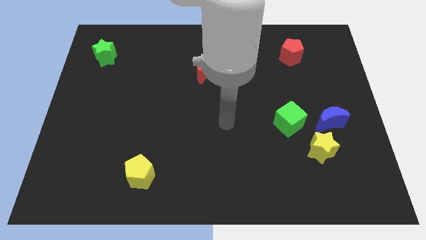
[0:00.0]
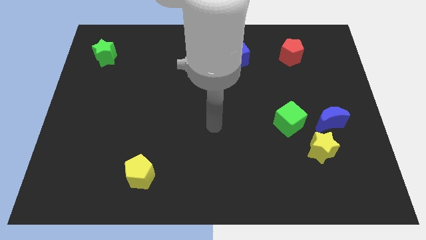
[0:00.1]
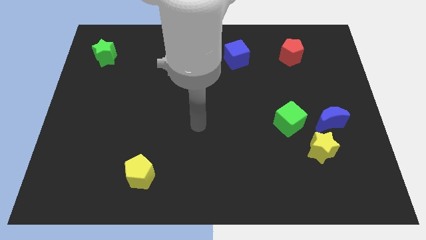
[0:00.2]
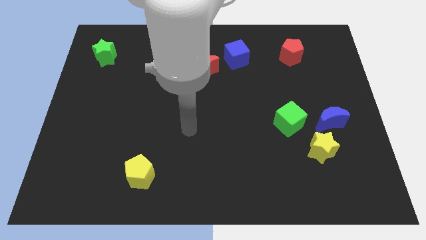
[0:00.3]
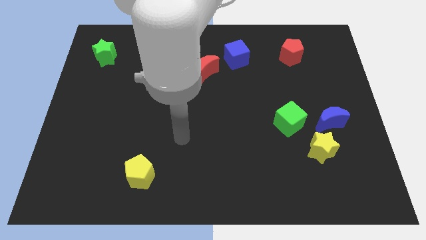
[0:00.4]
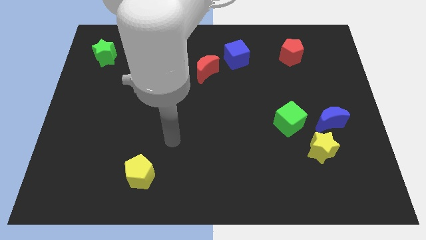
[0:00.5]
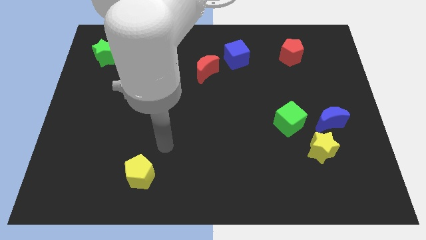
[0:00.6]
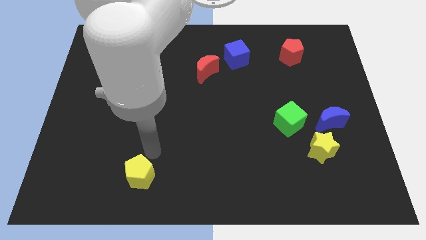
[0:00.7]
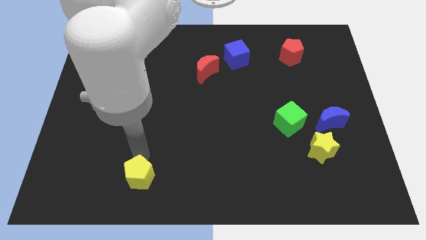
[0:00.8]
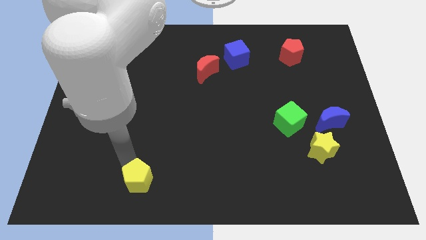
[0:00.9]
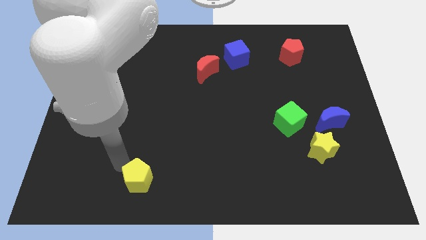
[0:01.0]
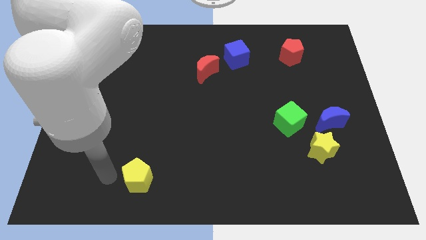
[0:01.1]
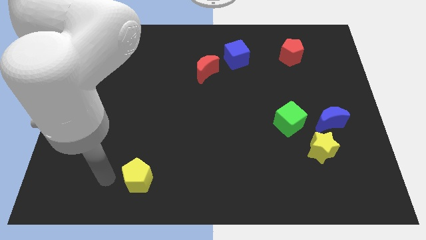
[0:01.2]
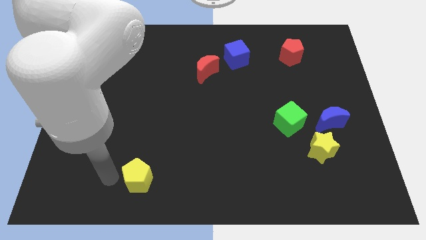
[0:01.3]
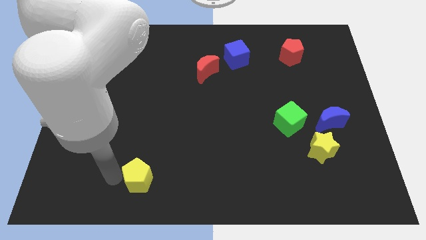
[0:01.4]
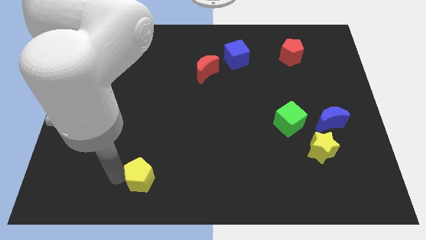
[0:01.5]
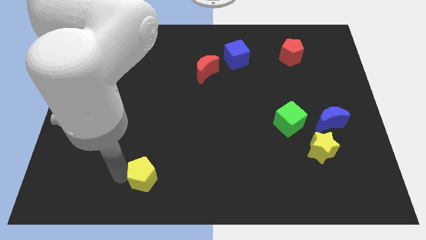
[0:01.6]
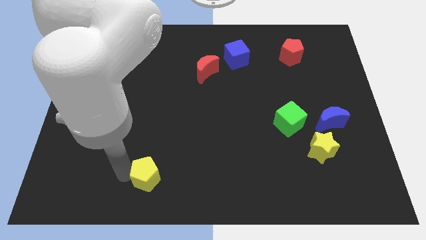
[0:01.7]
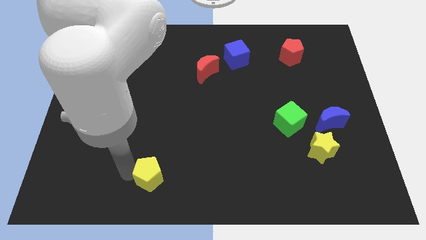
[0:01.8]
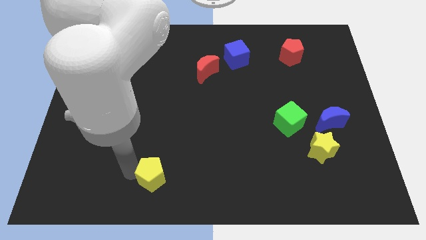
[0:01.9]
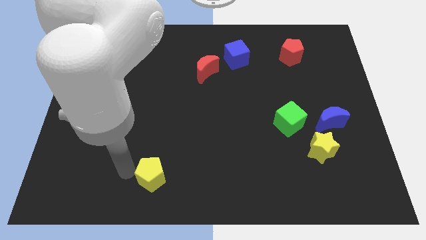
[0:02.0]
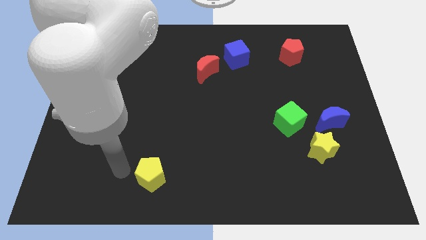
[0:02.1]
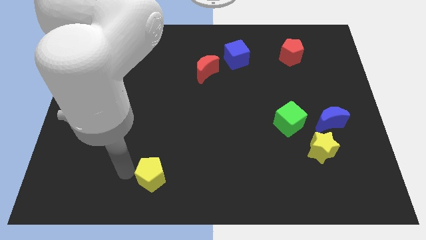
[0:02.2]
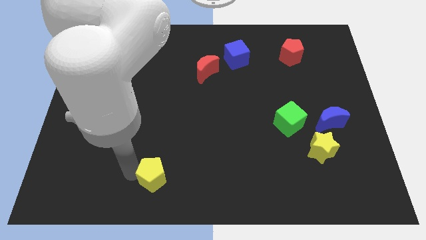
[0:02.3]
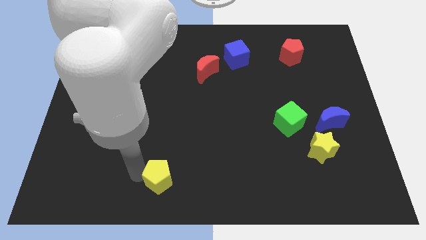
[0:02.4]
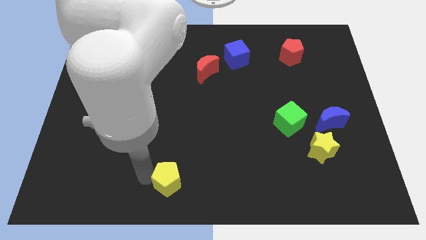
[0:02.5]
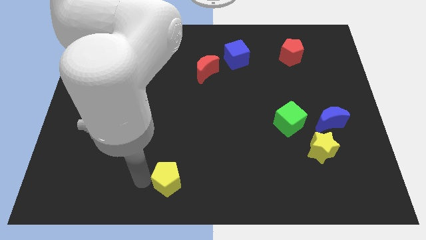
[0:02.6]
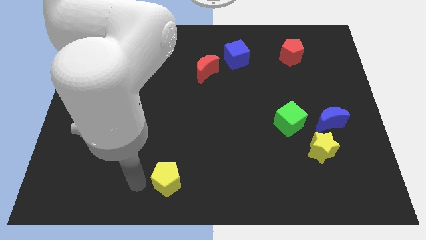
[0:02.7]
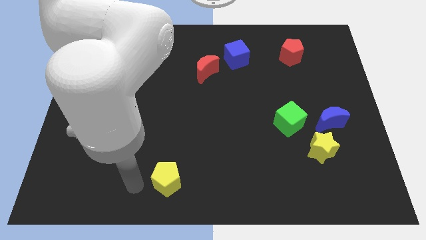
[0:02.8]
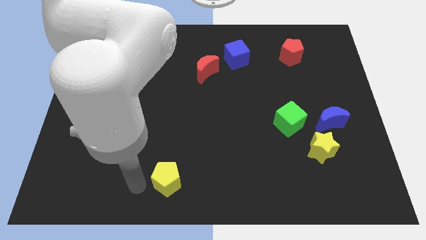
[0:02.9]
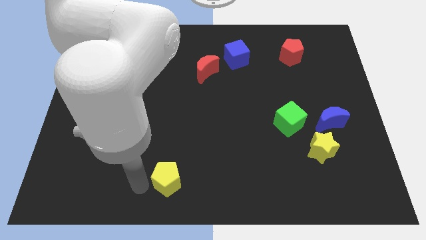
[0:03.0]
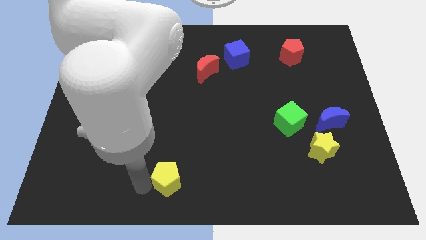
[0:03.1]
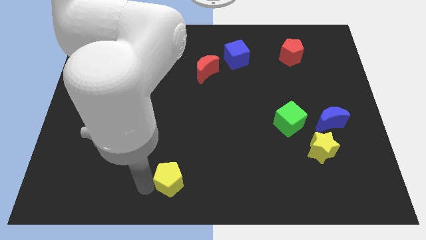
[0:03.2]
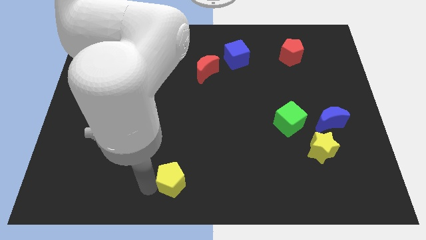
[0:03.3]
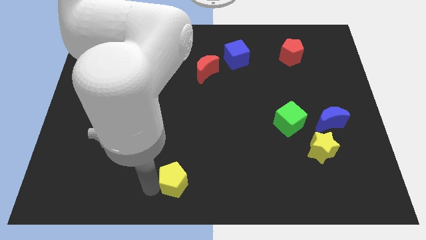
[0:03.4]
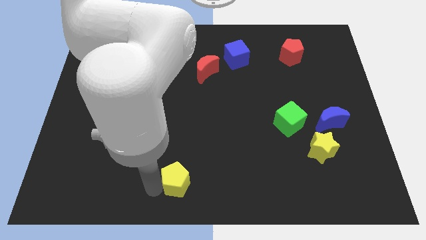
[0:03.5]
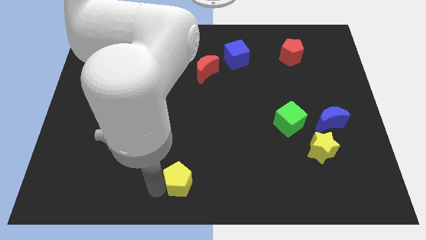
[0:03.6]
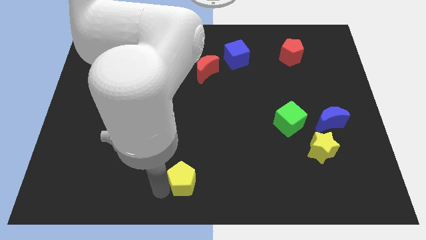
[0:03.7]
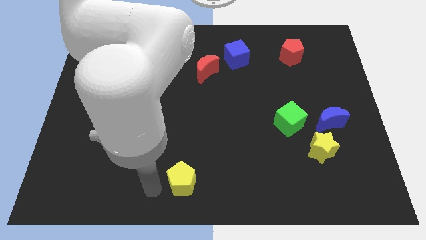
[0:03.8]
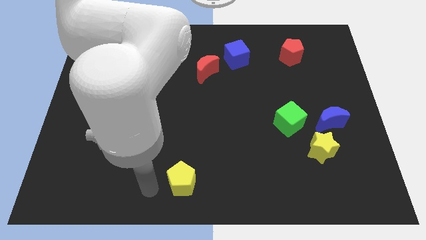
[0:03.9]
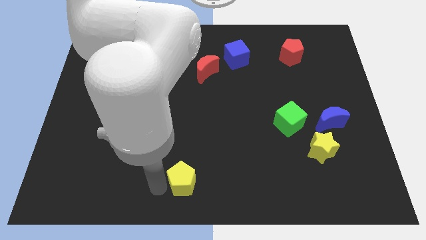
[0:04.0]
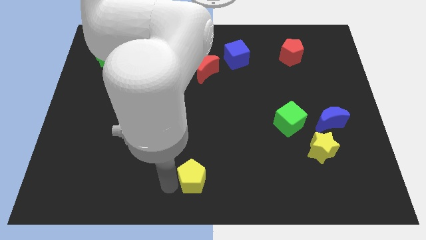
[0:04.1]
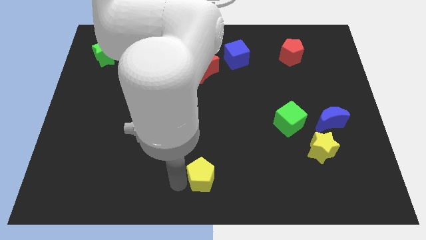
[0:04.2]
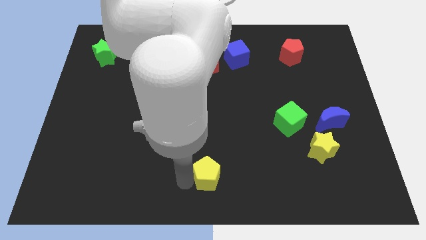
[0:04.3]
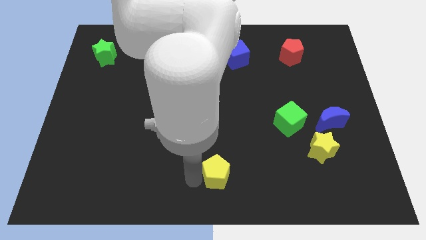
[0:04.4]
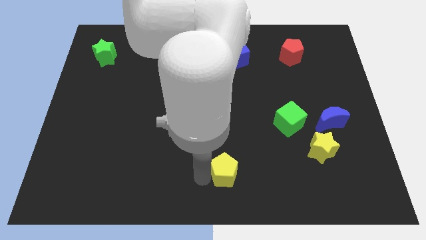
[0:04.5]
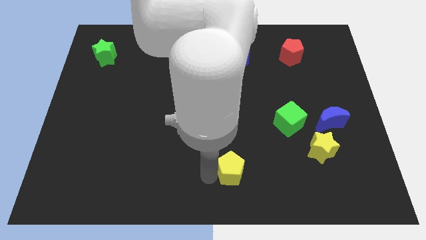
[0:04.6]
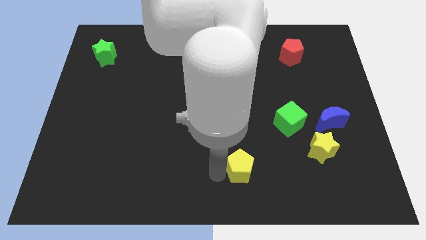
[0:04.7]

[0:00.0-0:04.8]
push the yellow pentagon to the right

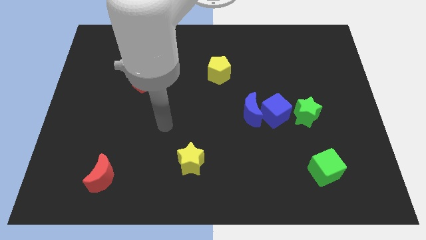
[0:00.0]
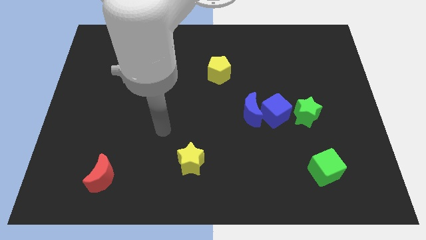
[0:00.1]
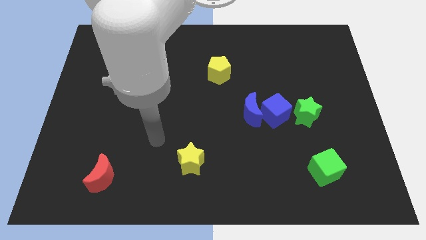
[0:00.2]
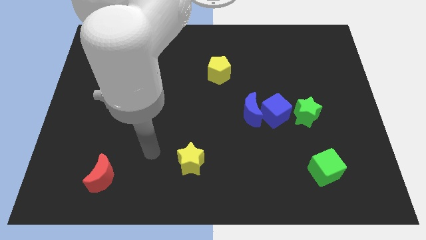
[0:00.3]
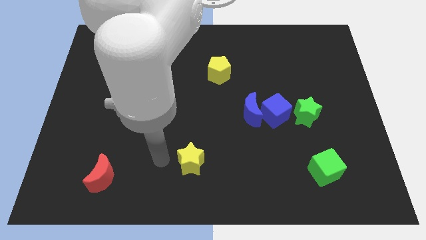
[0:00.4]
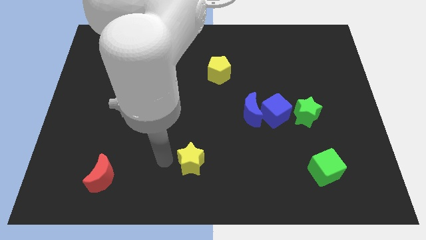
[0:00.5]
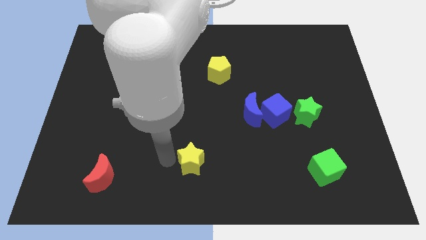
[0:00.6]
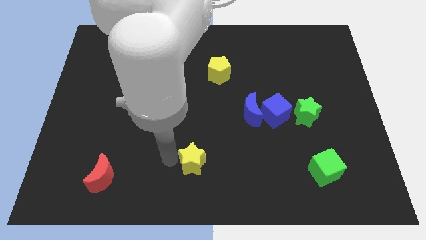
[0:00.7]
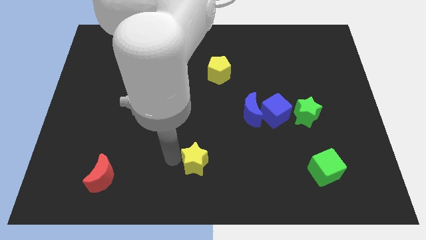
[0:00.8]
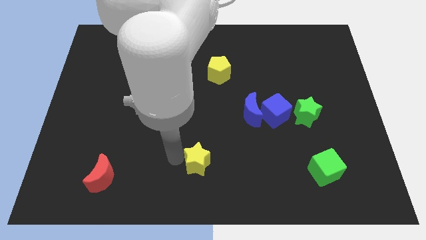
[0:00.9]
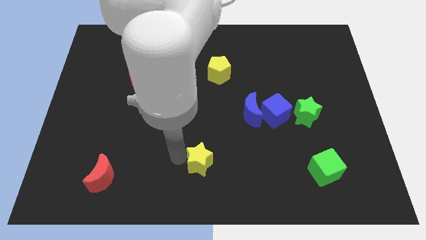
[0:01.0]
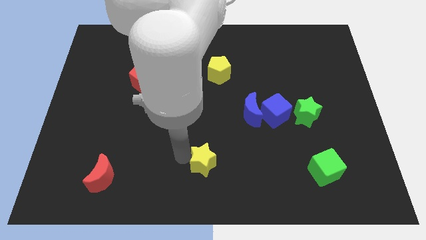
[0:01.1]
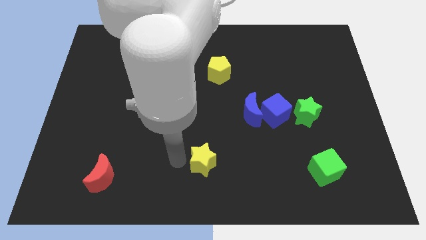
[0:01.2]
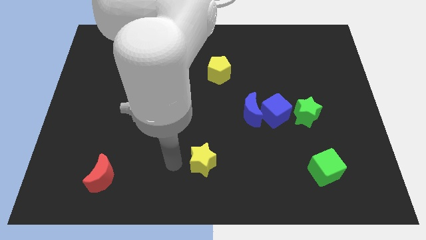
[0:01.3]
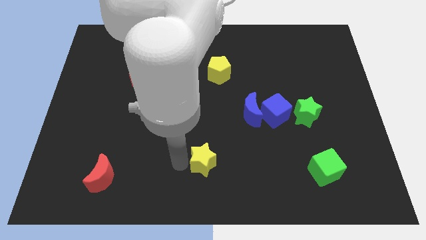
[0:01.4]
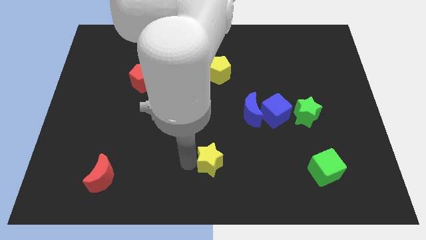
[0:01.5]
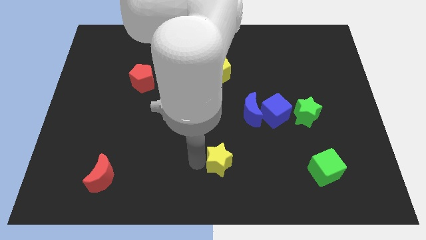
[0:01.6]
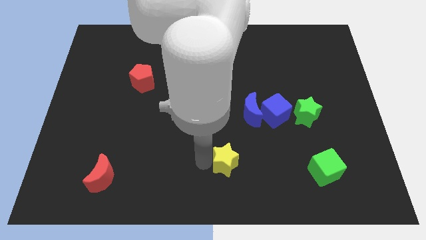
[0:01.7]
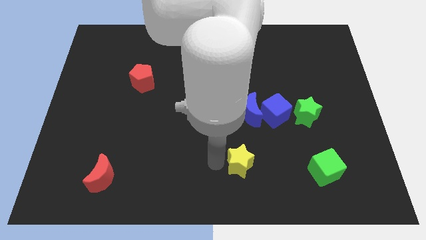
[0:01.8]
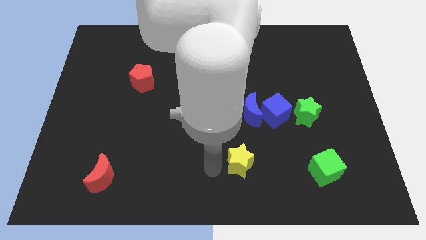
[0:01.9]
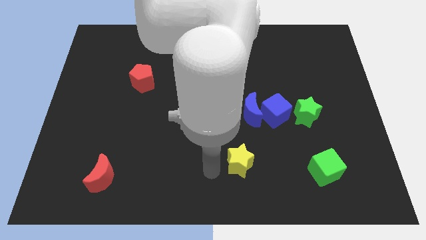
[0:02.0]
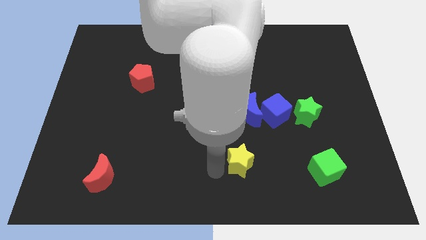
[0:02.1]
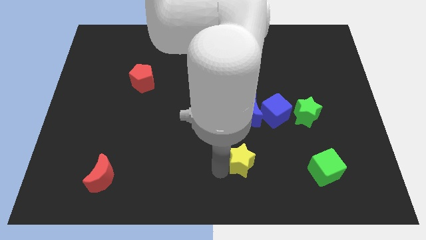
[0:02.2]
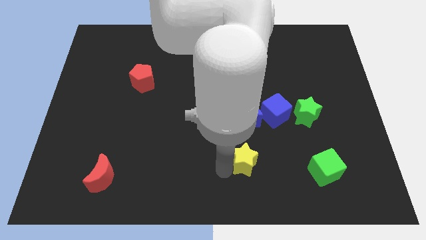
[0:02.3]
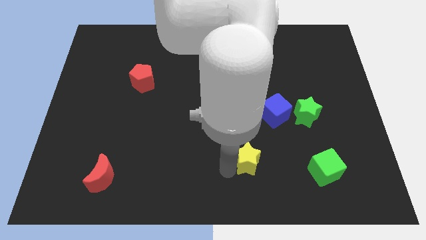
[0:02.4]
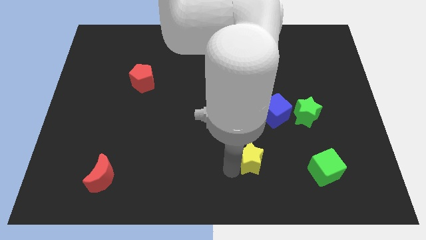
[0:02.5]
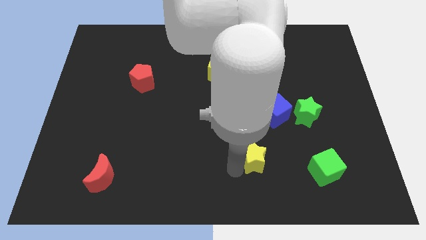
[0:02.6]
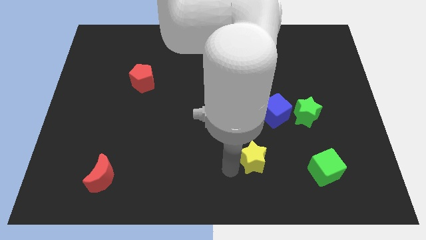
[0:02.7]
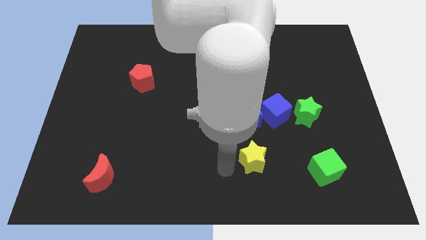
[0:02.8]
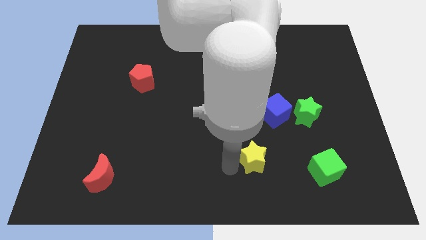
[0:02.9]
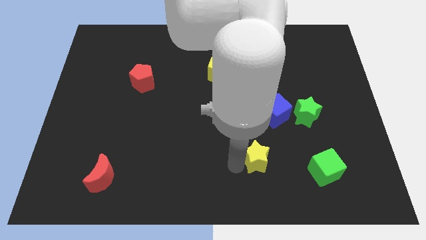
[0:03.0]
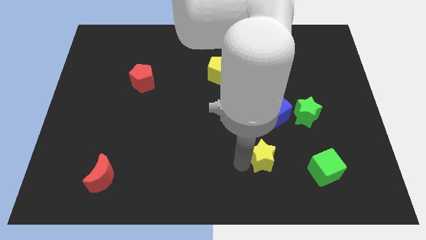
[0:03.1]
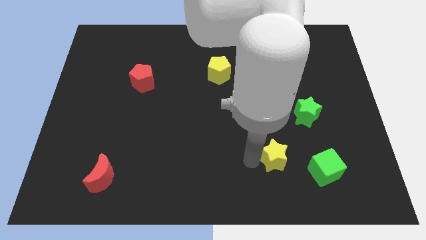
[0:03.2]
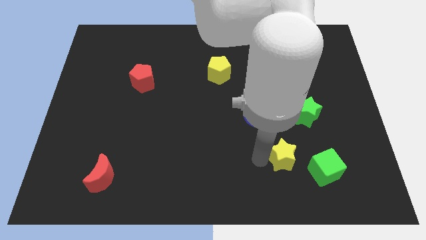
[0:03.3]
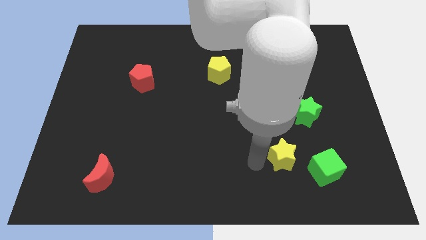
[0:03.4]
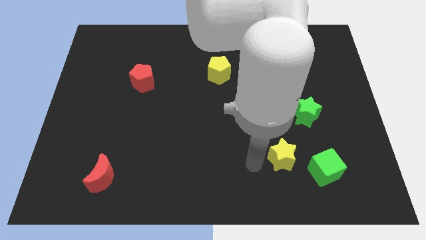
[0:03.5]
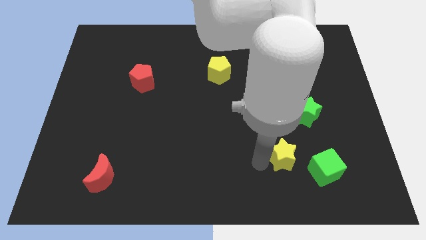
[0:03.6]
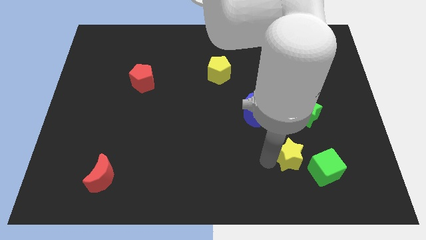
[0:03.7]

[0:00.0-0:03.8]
move the yellow star to the right
